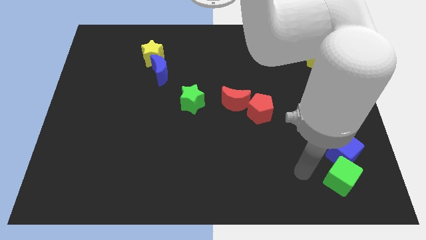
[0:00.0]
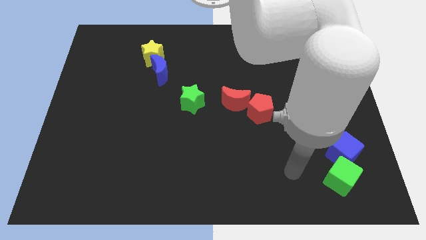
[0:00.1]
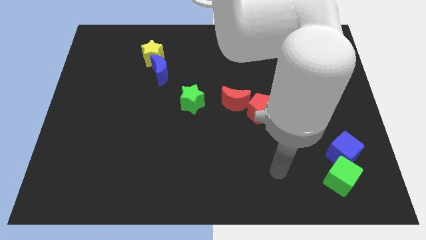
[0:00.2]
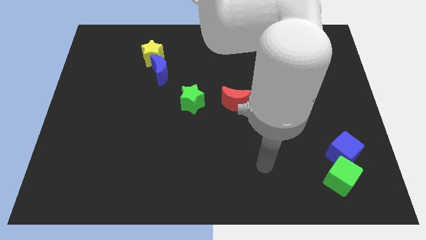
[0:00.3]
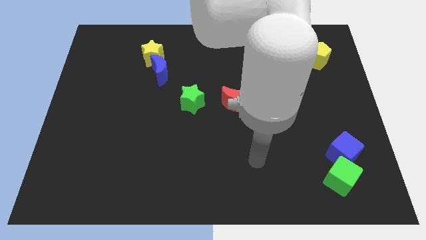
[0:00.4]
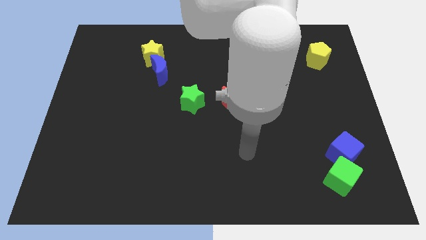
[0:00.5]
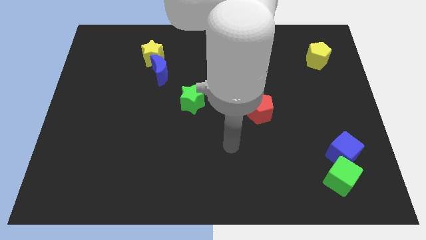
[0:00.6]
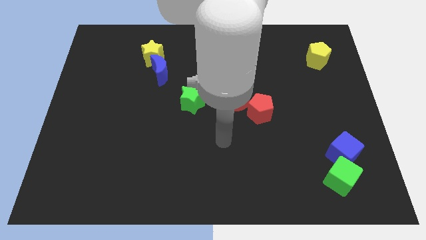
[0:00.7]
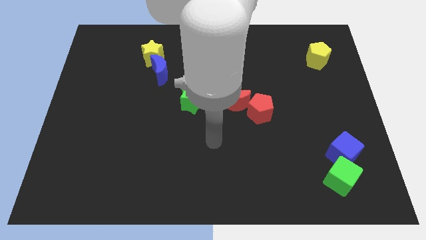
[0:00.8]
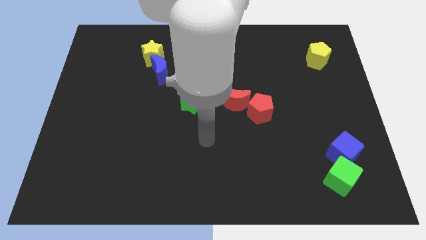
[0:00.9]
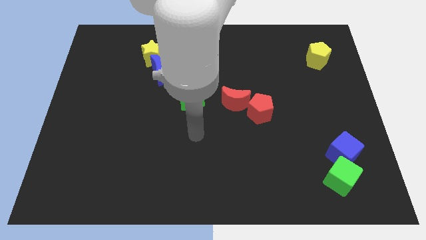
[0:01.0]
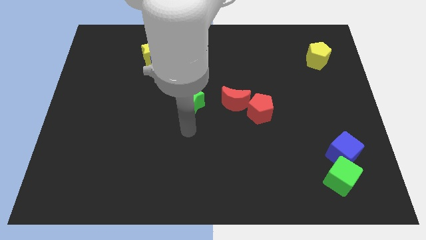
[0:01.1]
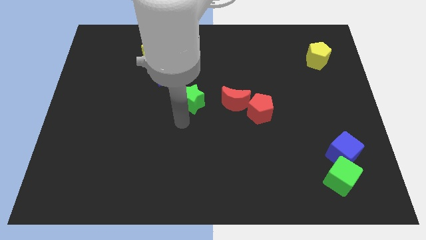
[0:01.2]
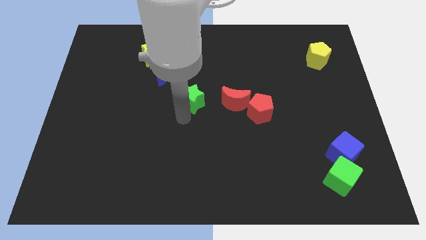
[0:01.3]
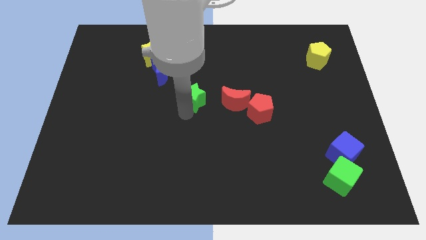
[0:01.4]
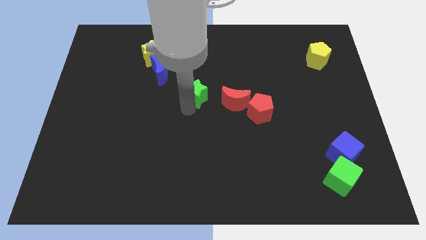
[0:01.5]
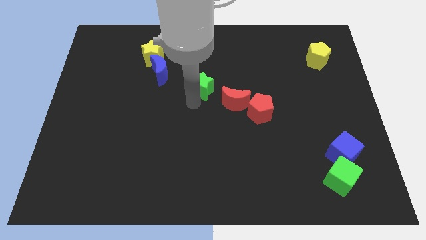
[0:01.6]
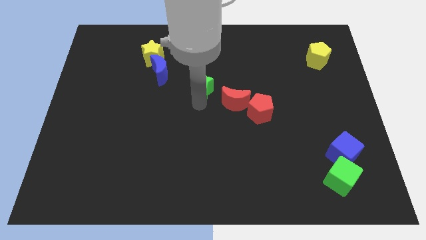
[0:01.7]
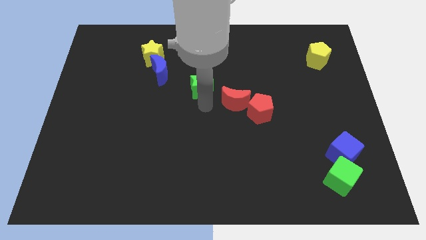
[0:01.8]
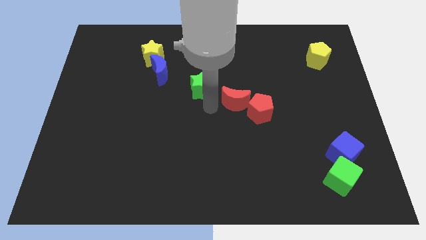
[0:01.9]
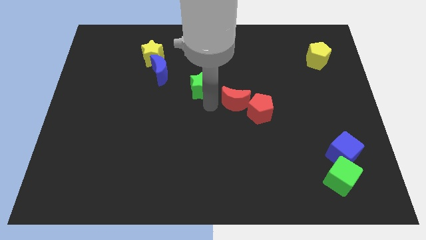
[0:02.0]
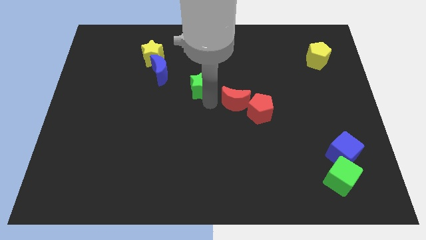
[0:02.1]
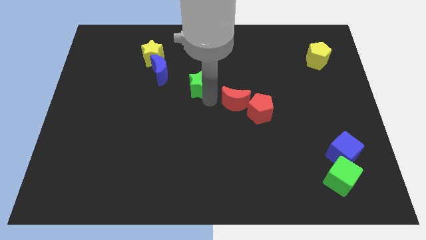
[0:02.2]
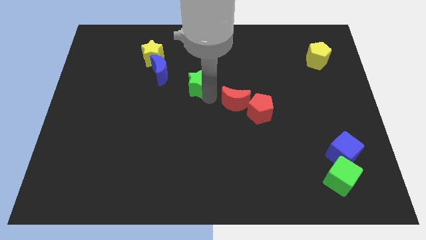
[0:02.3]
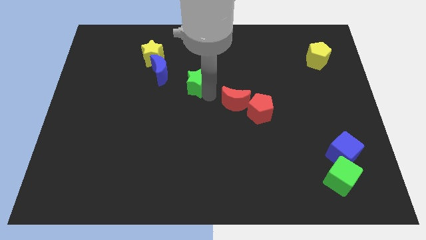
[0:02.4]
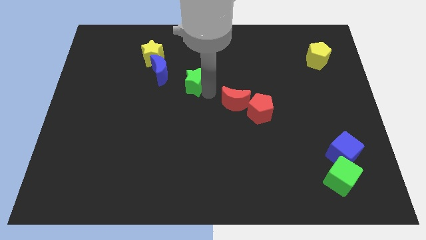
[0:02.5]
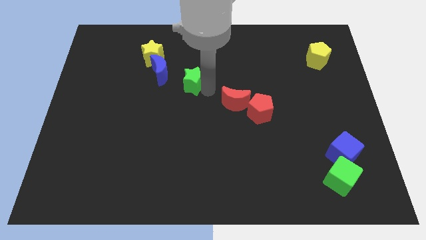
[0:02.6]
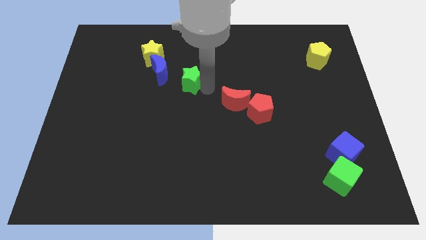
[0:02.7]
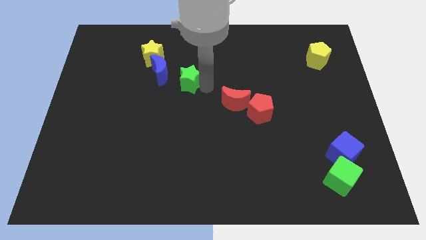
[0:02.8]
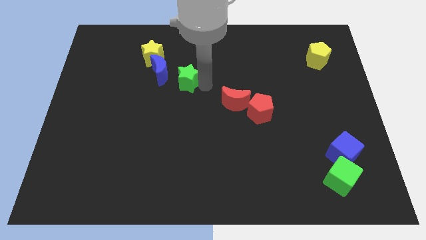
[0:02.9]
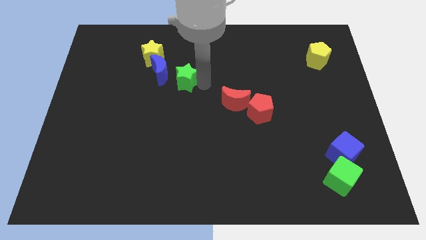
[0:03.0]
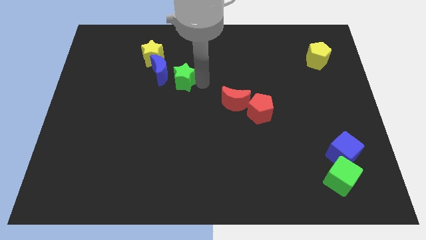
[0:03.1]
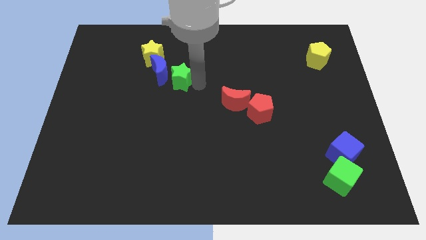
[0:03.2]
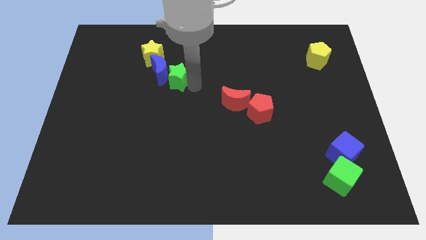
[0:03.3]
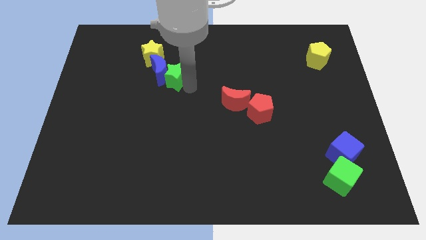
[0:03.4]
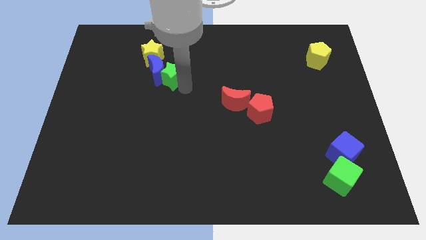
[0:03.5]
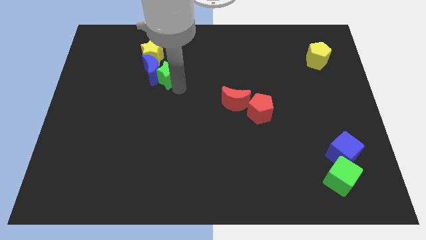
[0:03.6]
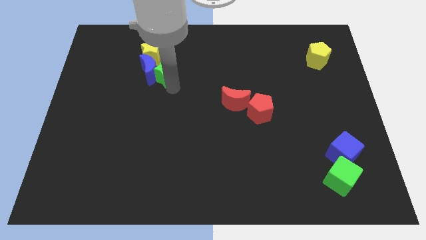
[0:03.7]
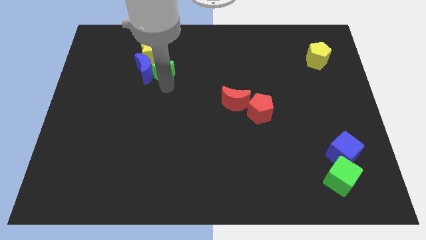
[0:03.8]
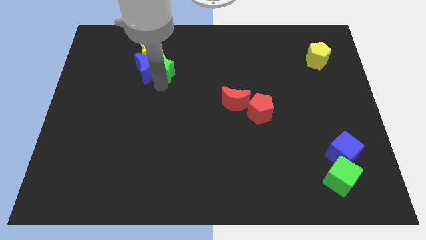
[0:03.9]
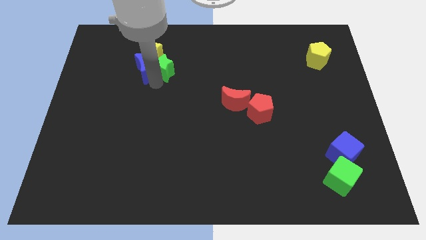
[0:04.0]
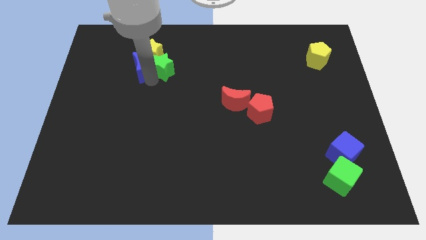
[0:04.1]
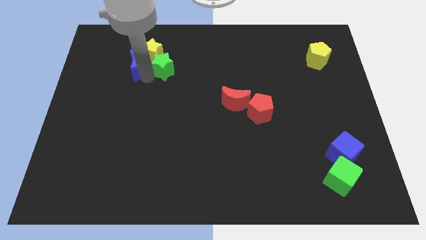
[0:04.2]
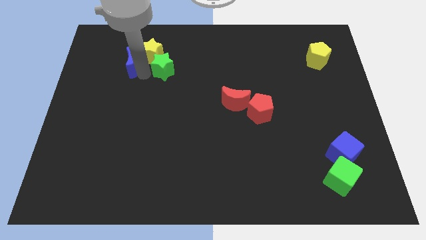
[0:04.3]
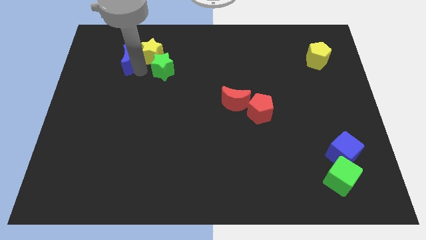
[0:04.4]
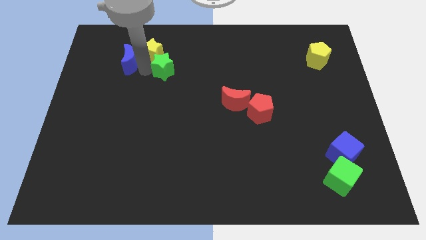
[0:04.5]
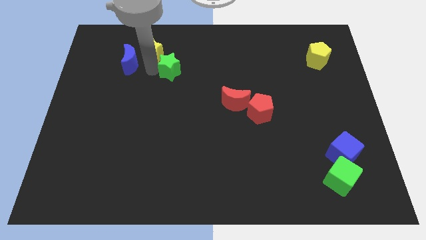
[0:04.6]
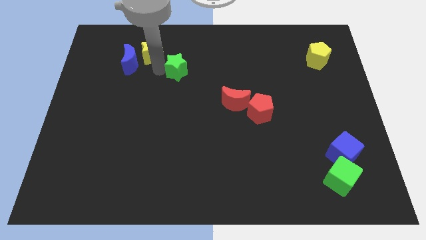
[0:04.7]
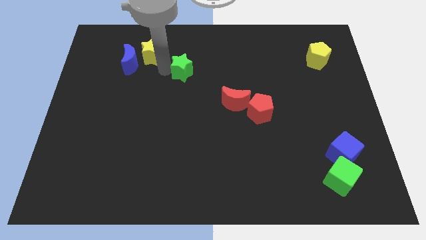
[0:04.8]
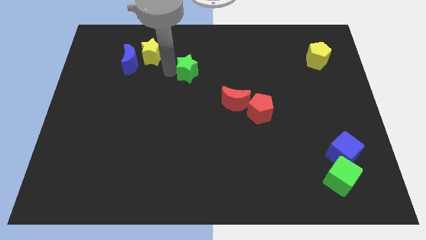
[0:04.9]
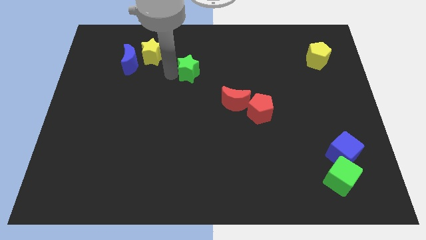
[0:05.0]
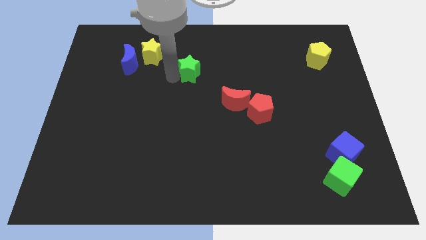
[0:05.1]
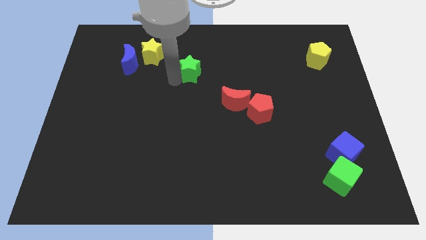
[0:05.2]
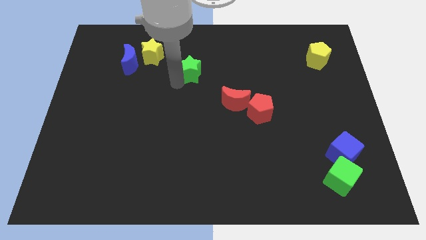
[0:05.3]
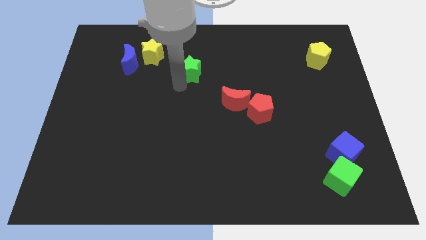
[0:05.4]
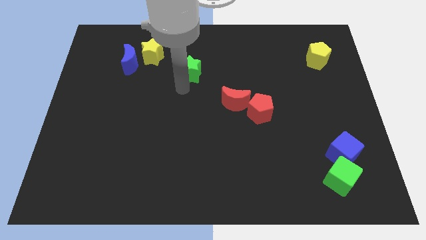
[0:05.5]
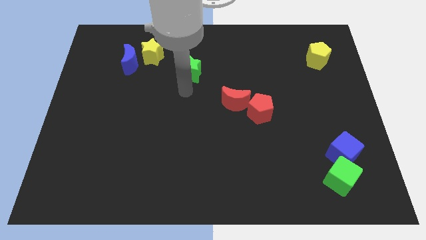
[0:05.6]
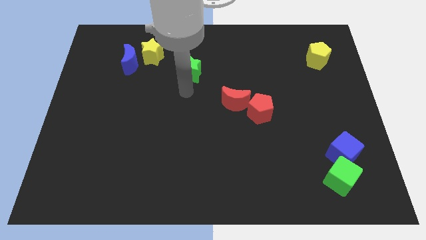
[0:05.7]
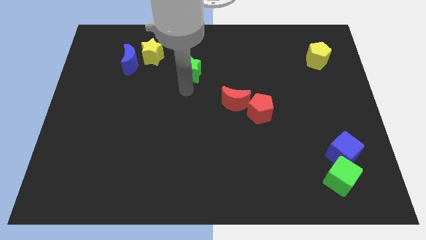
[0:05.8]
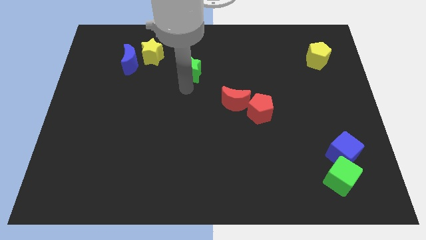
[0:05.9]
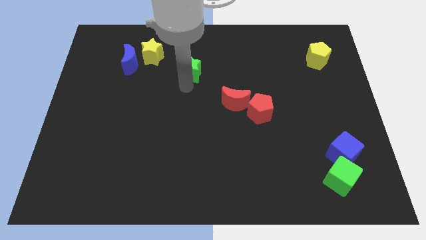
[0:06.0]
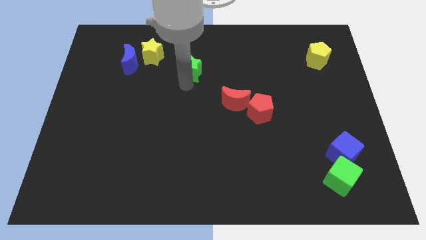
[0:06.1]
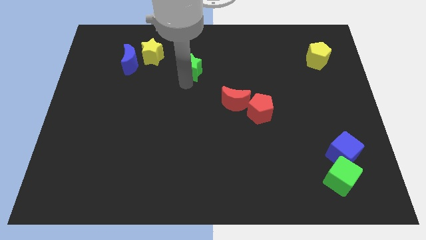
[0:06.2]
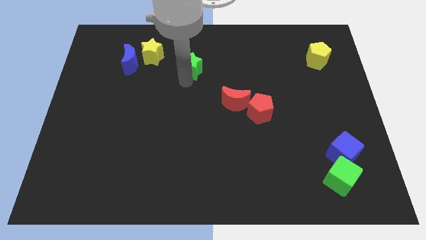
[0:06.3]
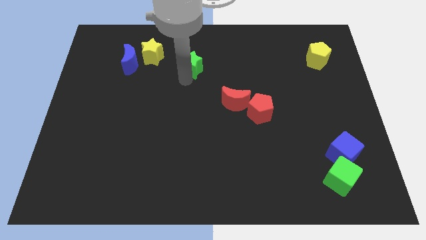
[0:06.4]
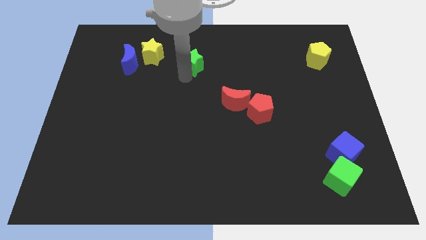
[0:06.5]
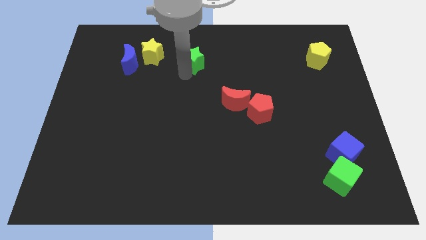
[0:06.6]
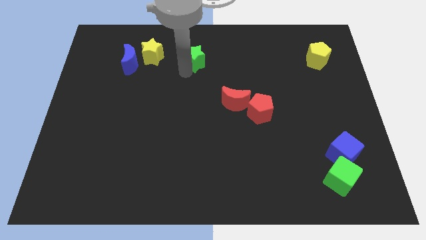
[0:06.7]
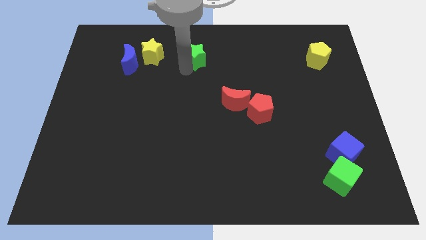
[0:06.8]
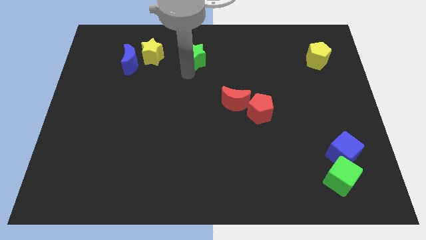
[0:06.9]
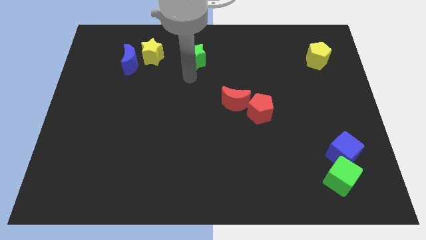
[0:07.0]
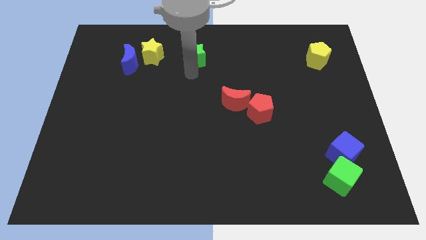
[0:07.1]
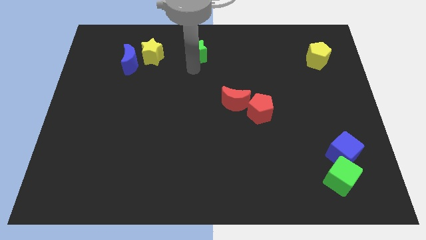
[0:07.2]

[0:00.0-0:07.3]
move the green star to the top side
